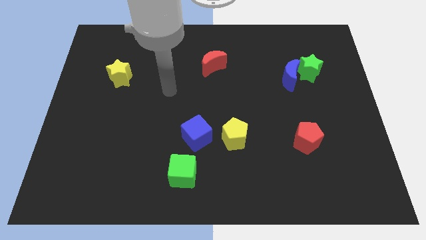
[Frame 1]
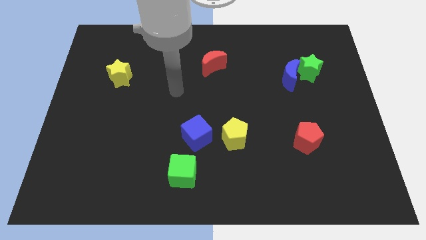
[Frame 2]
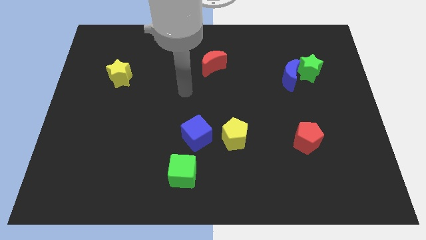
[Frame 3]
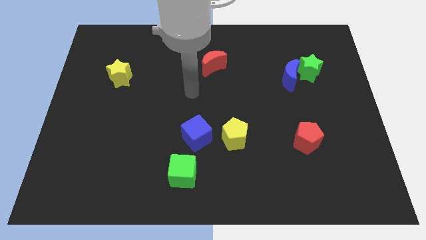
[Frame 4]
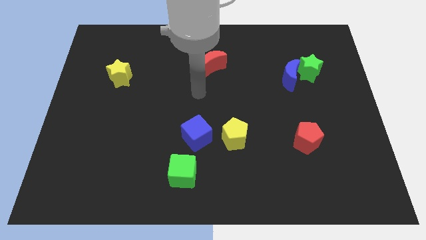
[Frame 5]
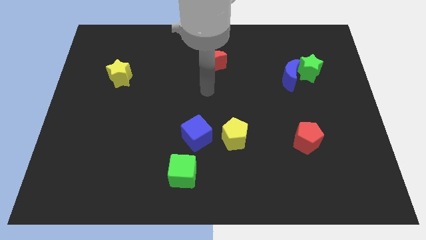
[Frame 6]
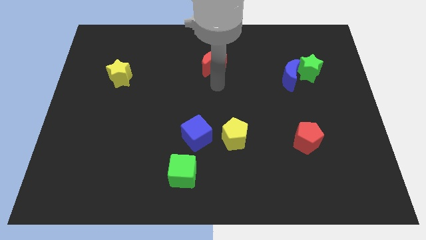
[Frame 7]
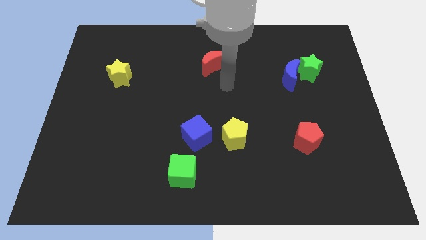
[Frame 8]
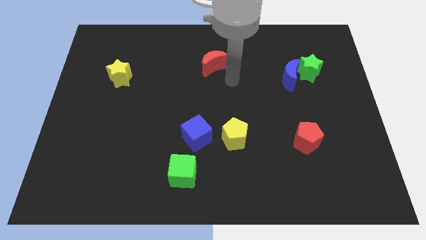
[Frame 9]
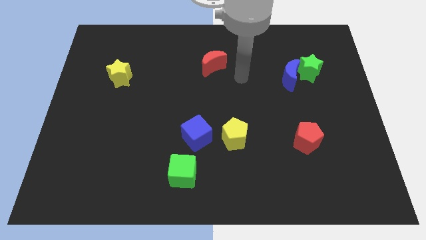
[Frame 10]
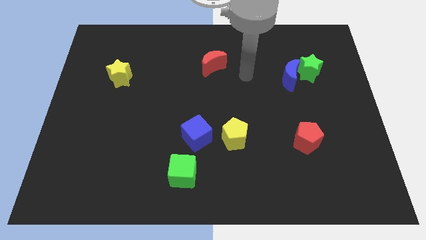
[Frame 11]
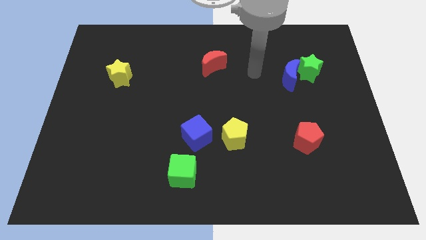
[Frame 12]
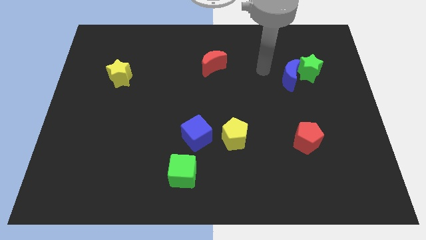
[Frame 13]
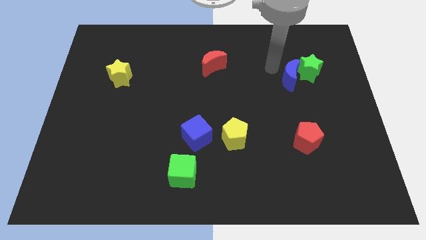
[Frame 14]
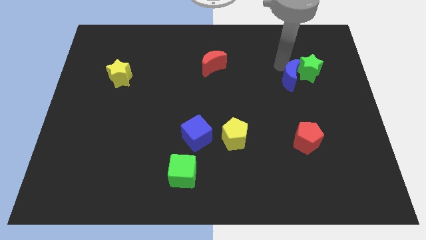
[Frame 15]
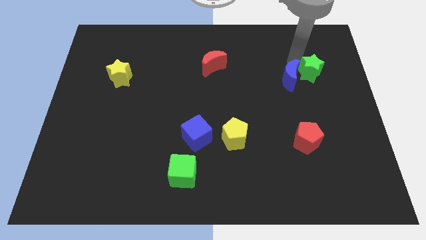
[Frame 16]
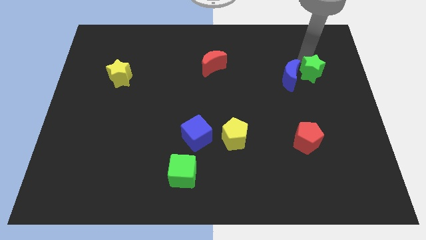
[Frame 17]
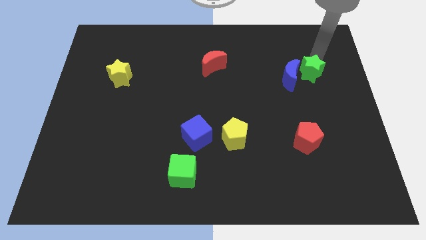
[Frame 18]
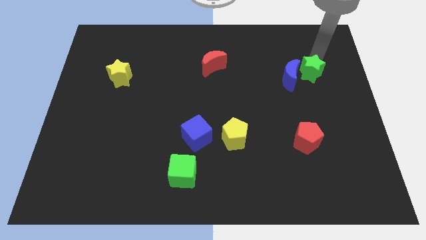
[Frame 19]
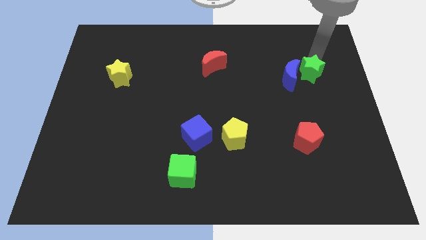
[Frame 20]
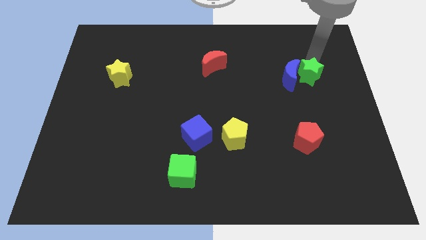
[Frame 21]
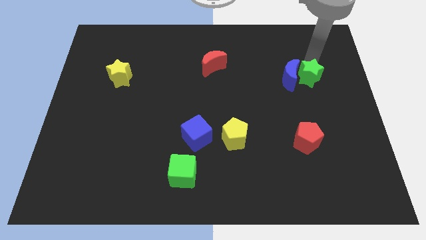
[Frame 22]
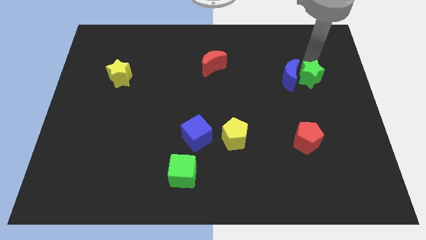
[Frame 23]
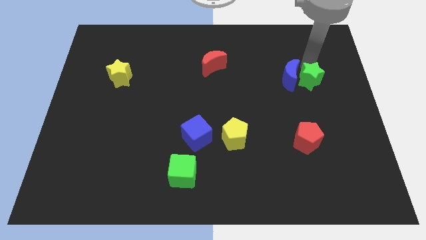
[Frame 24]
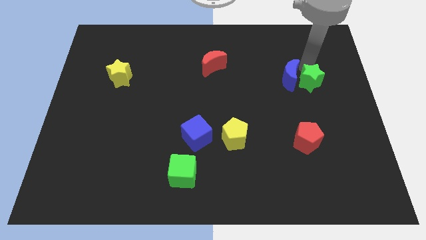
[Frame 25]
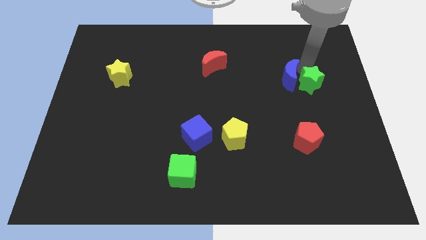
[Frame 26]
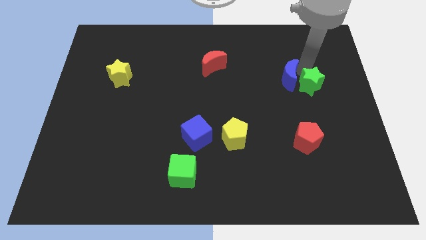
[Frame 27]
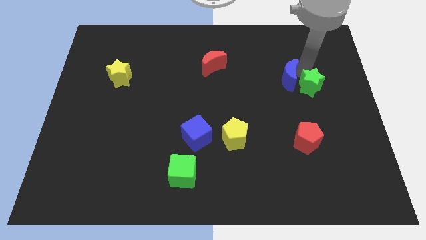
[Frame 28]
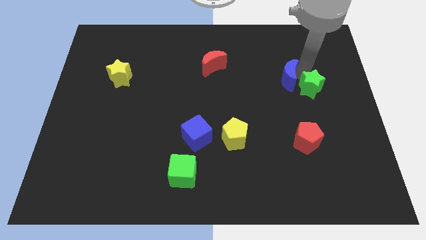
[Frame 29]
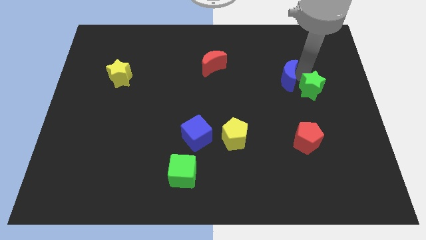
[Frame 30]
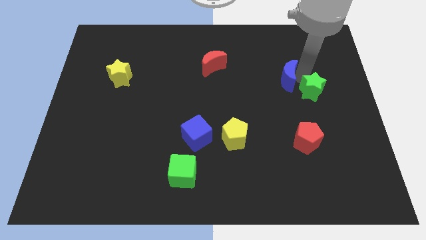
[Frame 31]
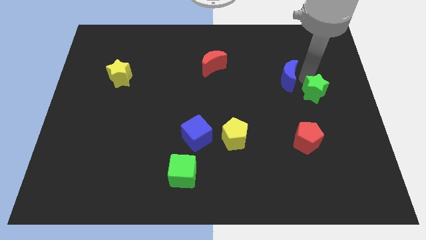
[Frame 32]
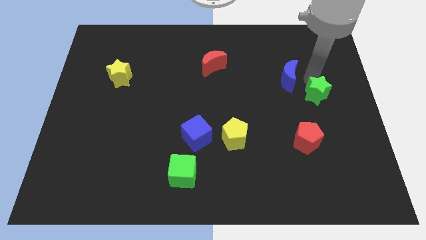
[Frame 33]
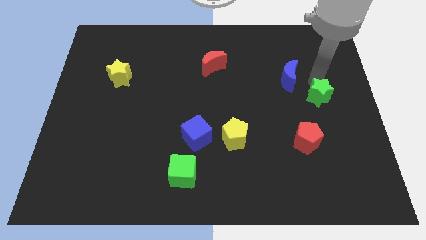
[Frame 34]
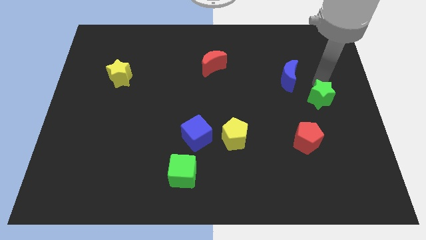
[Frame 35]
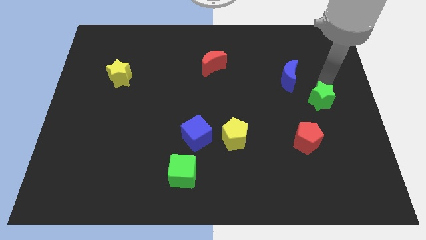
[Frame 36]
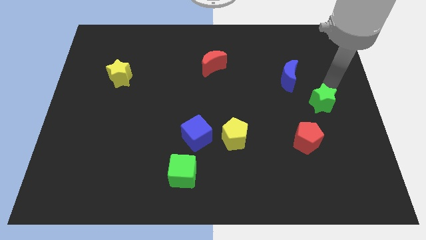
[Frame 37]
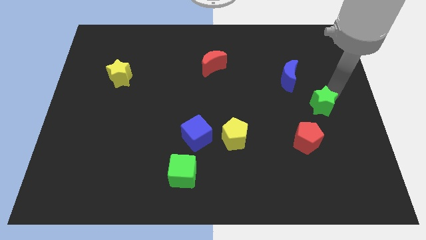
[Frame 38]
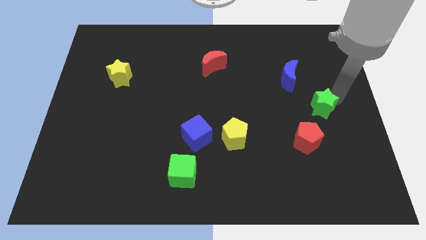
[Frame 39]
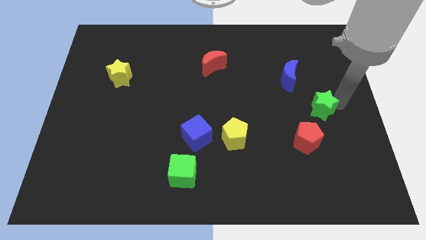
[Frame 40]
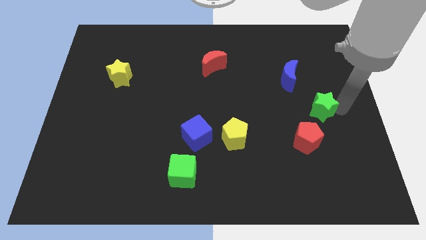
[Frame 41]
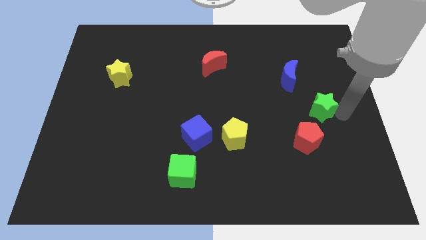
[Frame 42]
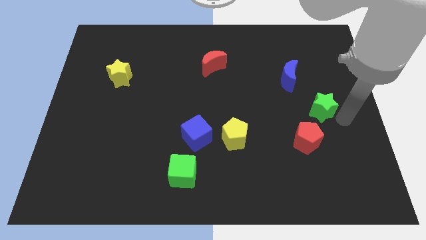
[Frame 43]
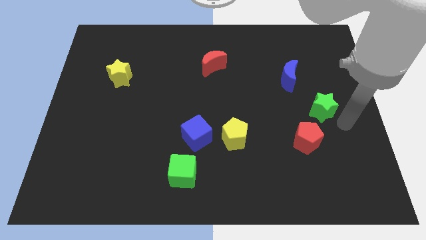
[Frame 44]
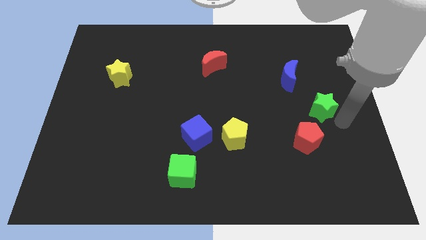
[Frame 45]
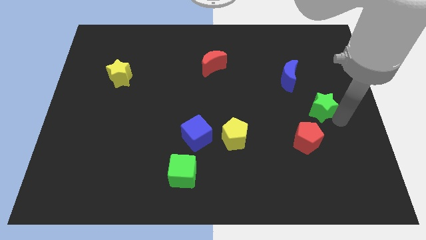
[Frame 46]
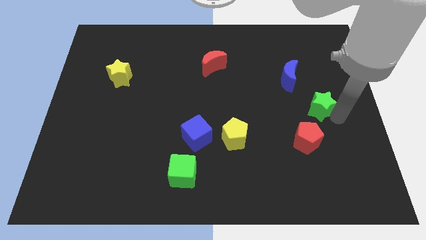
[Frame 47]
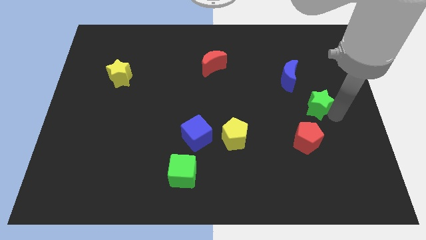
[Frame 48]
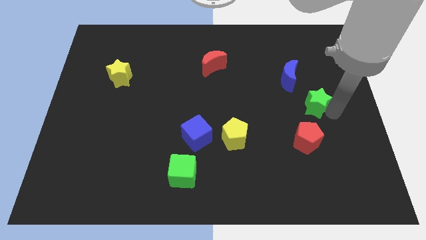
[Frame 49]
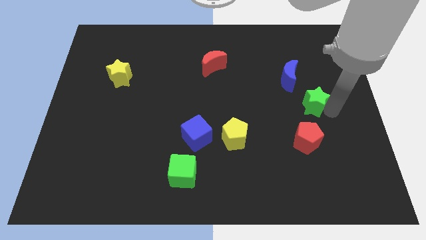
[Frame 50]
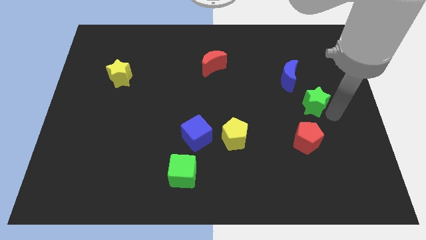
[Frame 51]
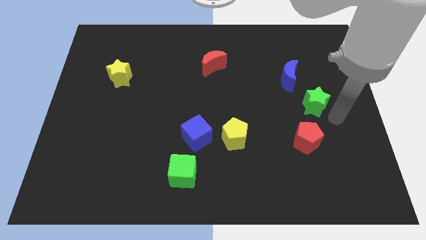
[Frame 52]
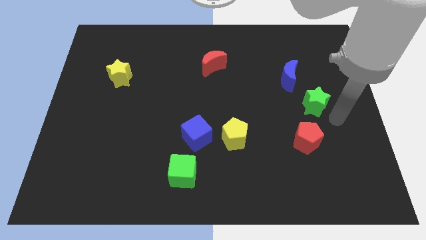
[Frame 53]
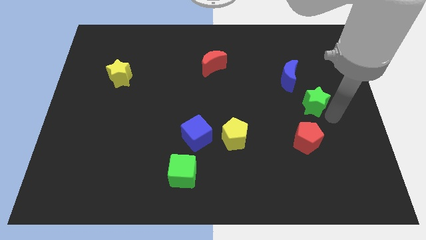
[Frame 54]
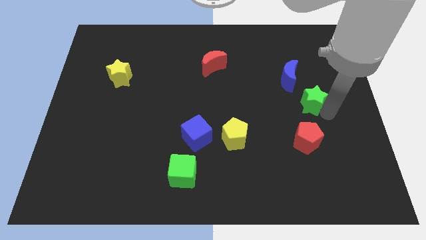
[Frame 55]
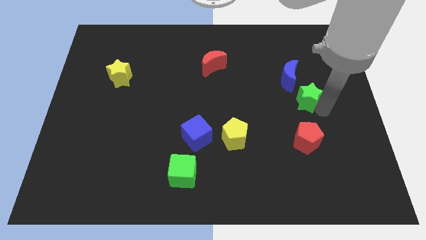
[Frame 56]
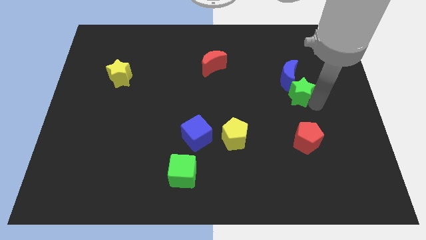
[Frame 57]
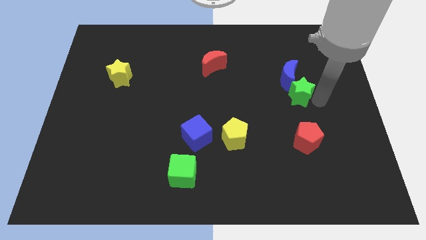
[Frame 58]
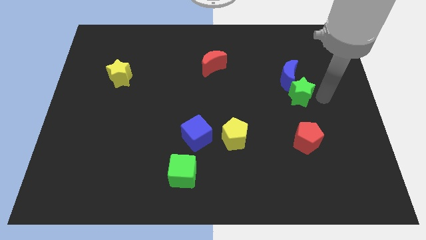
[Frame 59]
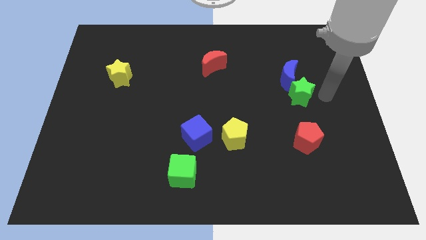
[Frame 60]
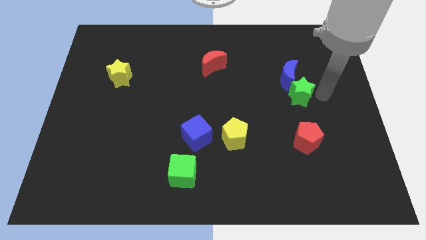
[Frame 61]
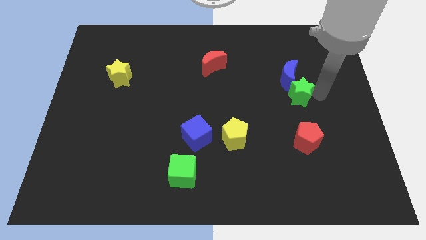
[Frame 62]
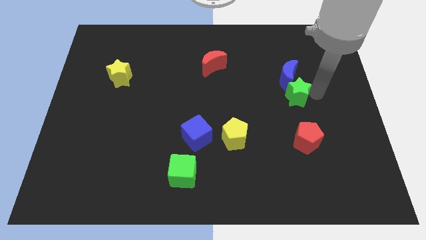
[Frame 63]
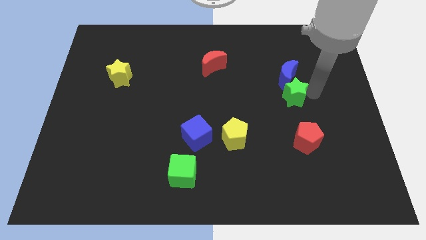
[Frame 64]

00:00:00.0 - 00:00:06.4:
slide the green star diagonally down and to the left of the blue moon

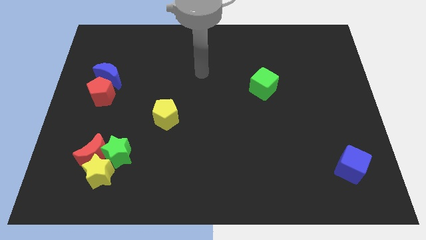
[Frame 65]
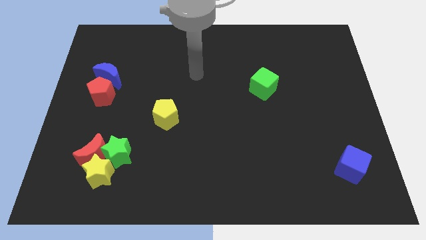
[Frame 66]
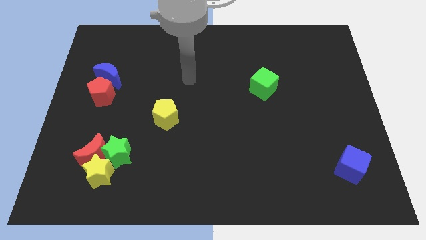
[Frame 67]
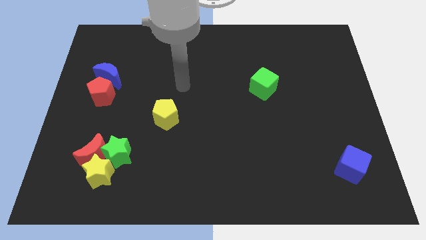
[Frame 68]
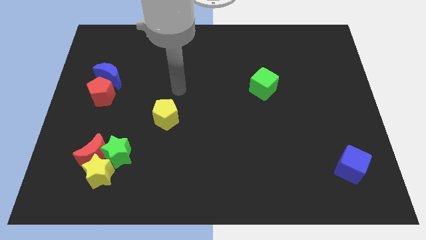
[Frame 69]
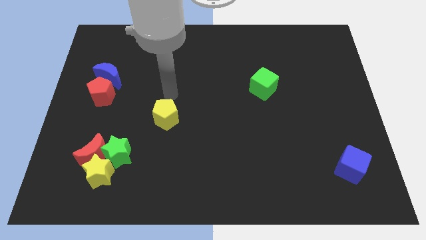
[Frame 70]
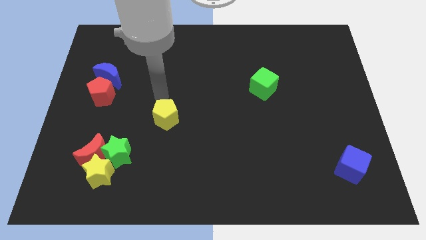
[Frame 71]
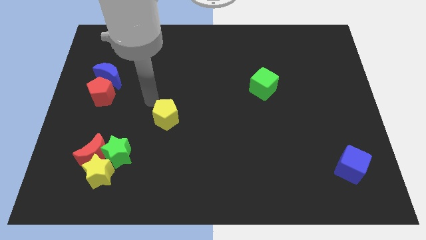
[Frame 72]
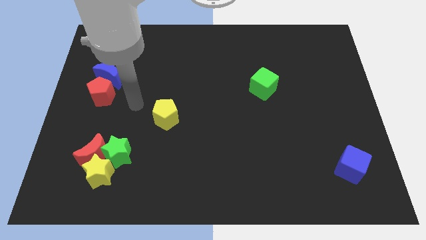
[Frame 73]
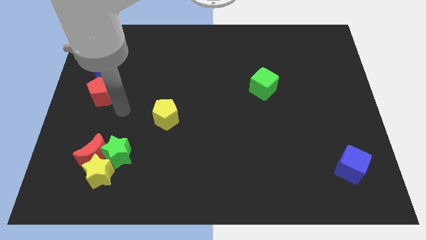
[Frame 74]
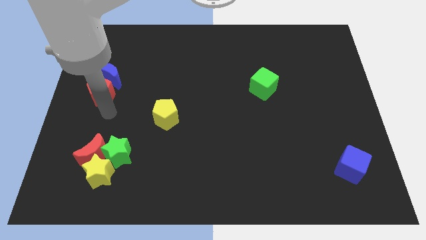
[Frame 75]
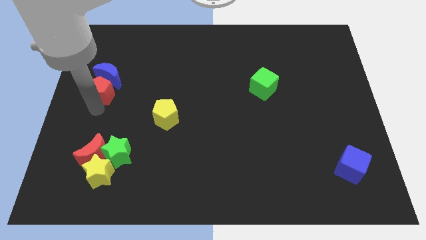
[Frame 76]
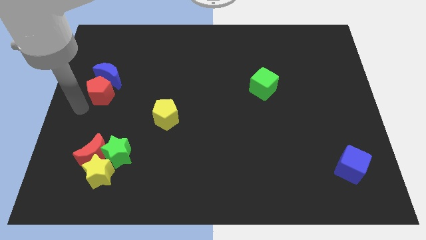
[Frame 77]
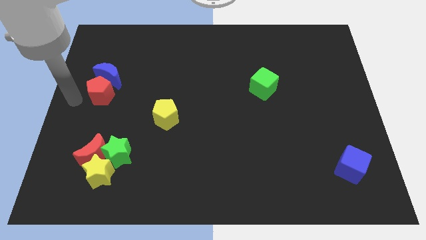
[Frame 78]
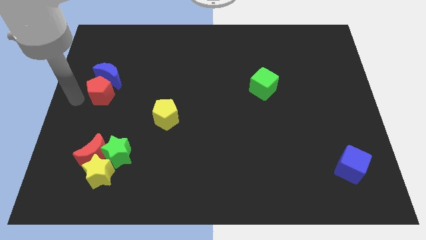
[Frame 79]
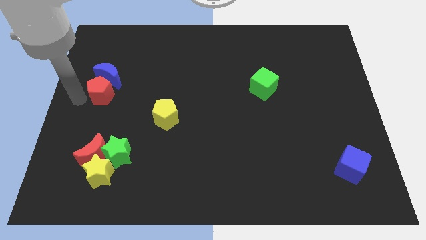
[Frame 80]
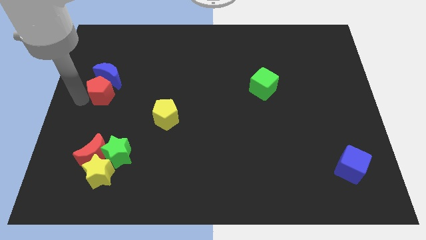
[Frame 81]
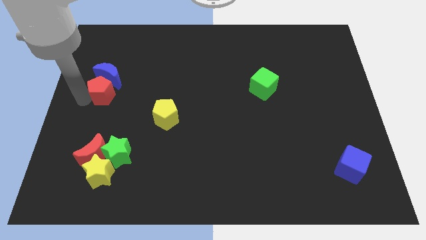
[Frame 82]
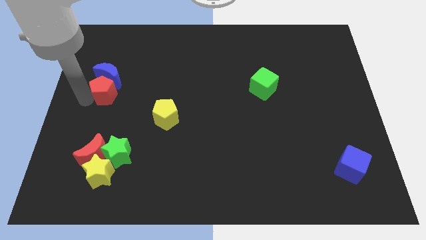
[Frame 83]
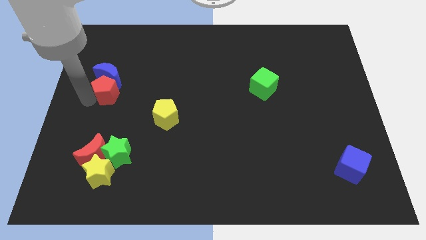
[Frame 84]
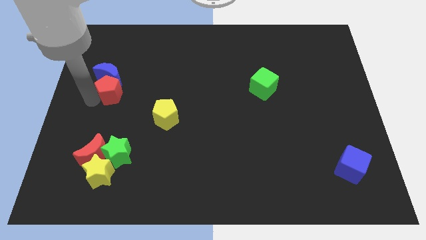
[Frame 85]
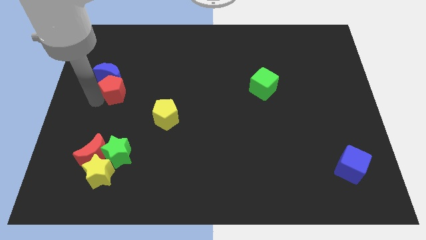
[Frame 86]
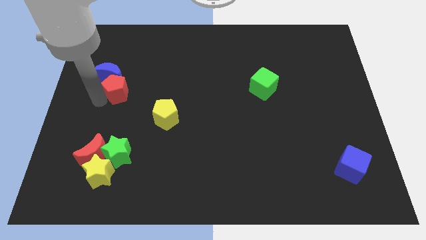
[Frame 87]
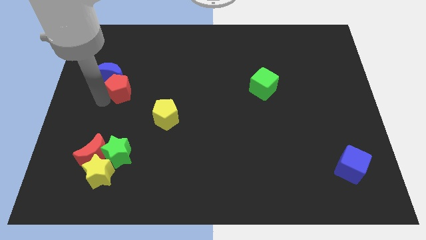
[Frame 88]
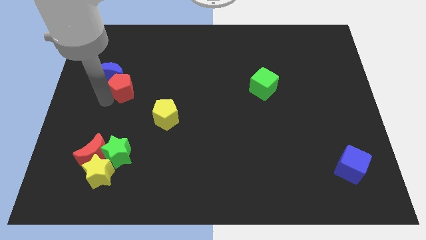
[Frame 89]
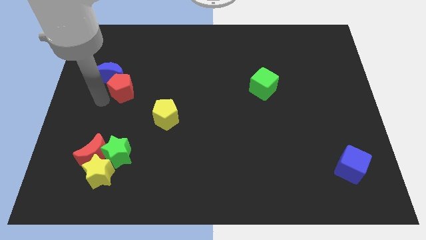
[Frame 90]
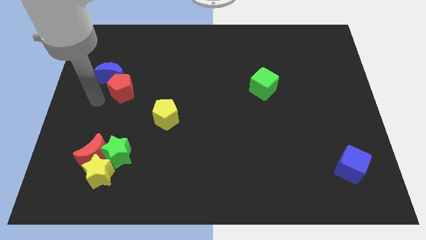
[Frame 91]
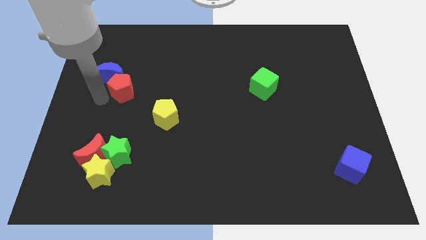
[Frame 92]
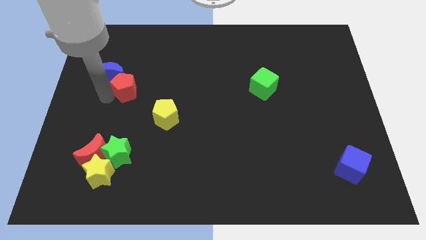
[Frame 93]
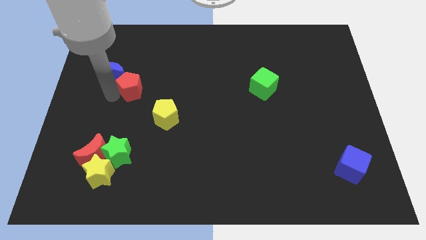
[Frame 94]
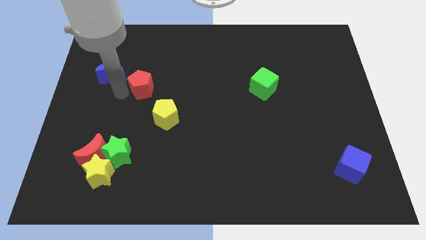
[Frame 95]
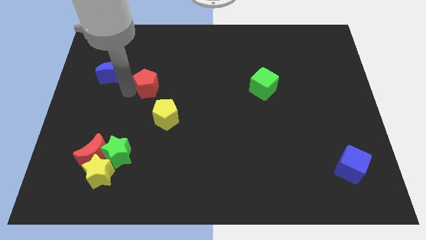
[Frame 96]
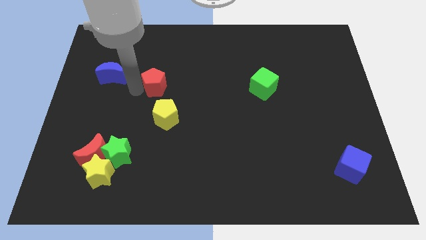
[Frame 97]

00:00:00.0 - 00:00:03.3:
move the red pentagon to the top side of the yellow pentagon
